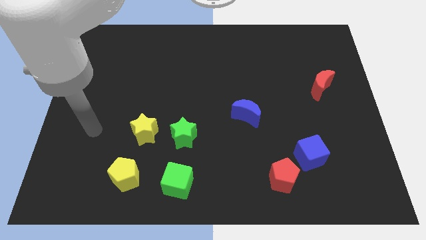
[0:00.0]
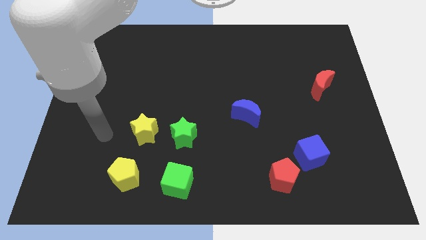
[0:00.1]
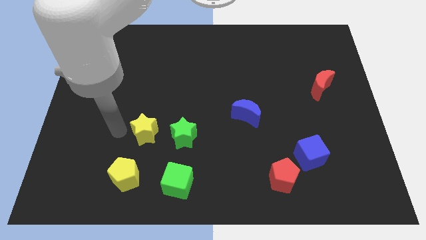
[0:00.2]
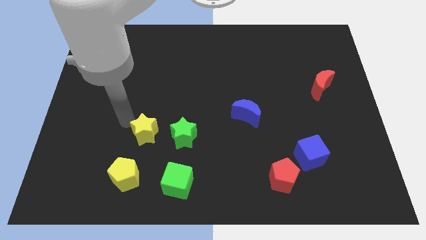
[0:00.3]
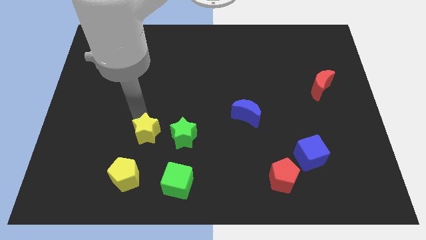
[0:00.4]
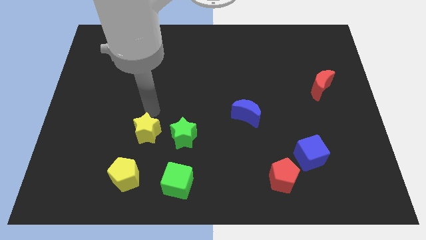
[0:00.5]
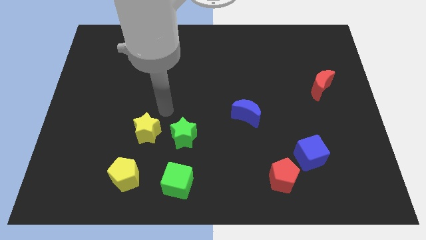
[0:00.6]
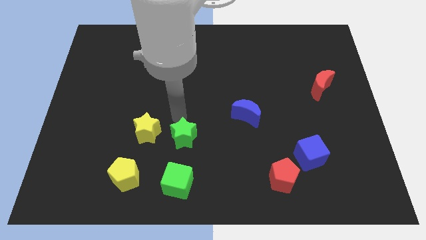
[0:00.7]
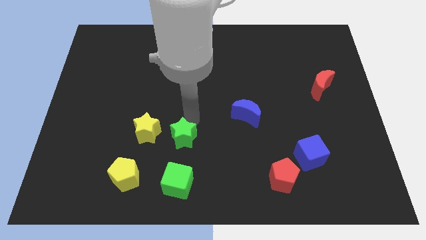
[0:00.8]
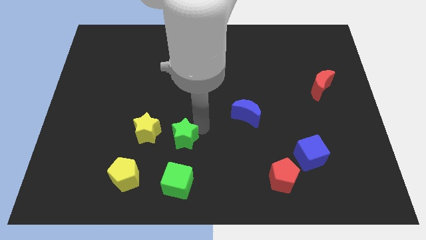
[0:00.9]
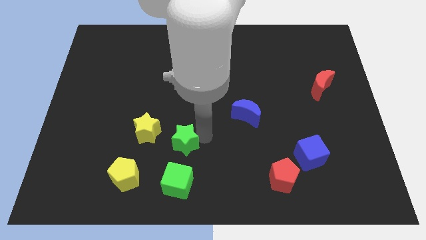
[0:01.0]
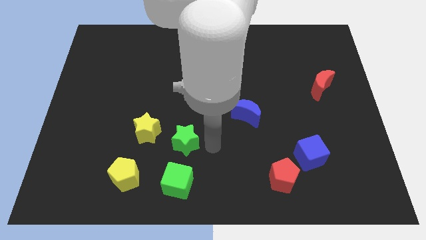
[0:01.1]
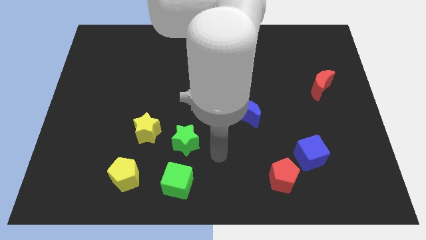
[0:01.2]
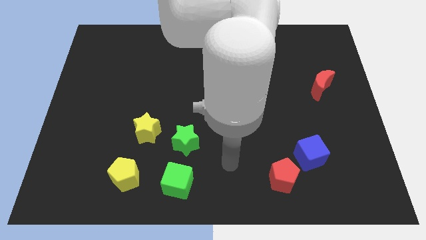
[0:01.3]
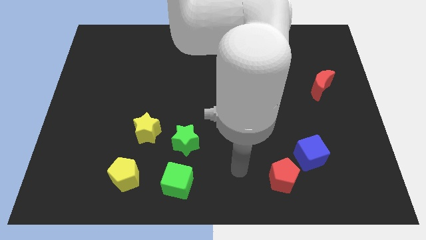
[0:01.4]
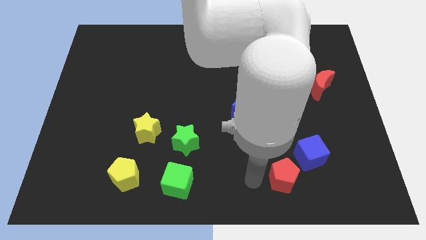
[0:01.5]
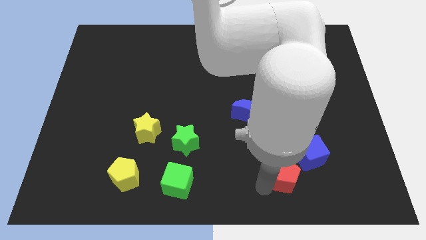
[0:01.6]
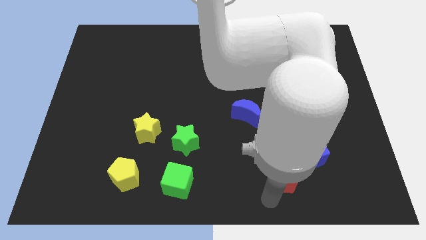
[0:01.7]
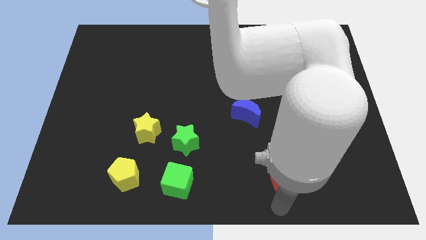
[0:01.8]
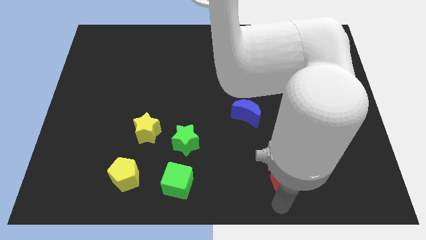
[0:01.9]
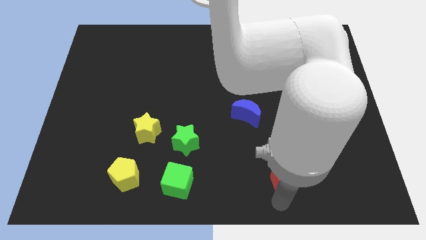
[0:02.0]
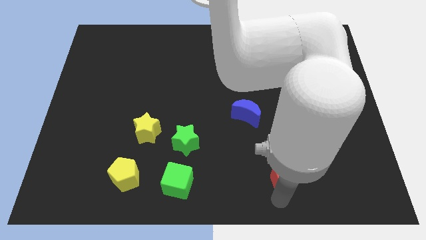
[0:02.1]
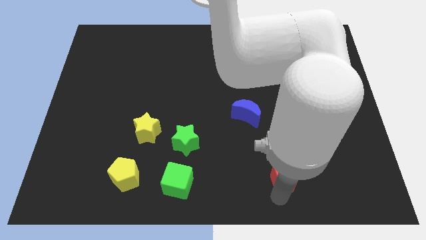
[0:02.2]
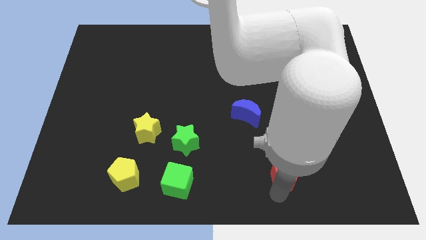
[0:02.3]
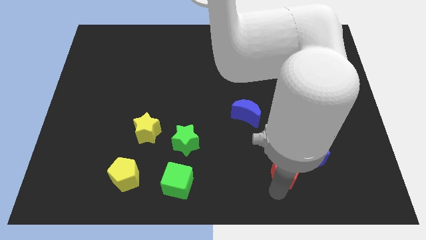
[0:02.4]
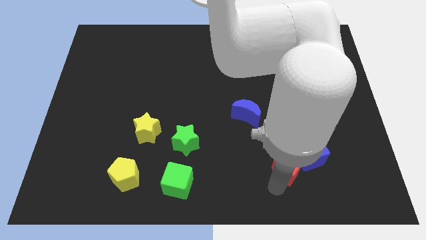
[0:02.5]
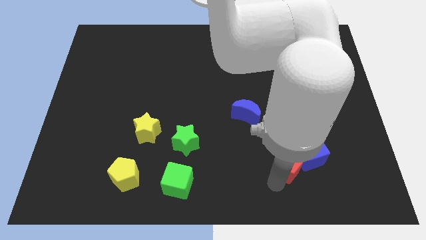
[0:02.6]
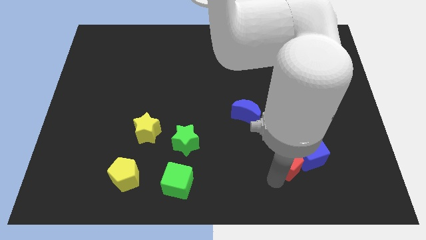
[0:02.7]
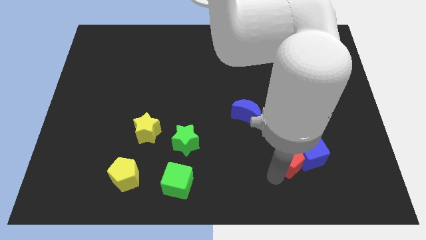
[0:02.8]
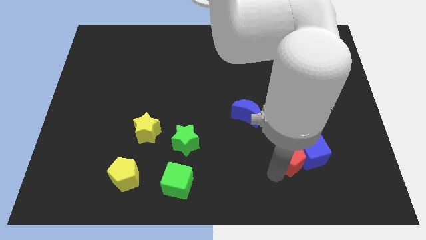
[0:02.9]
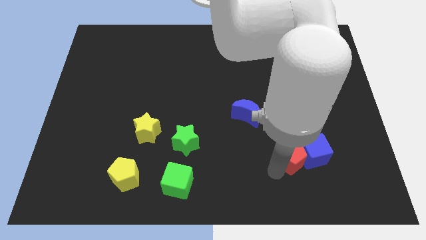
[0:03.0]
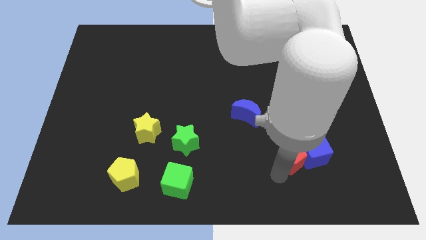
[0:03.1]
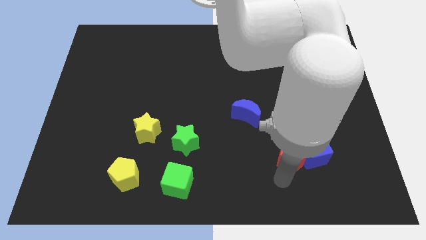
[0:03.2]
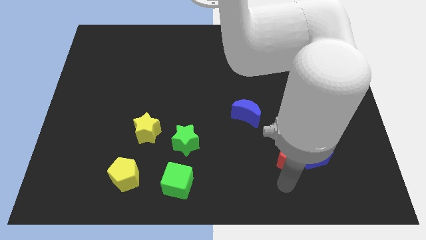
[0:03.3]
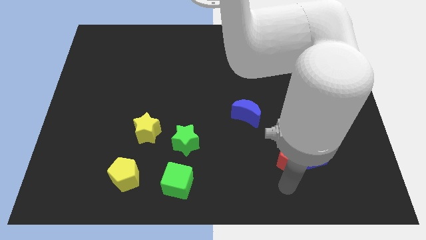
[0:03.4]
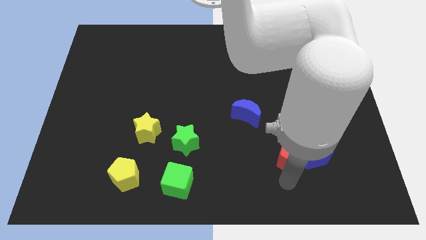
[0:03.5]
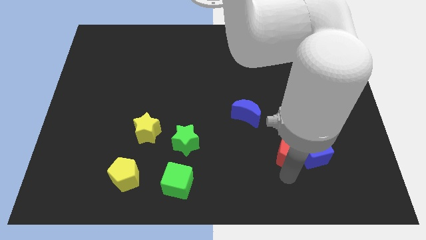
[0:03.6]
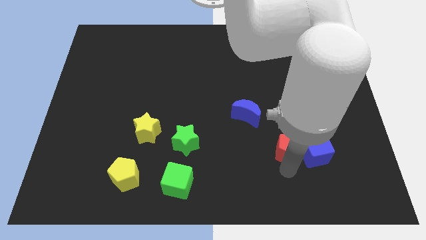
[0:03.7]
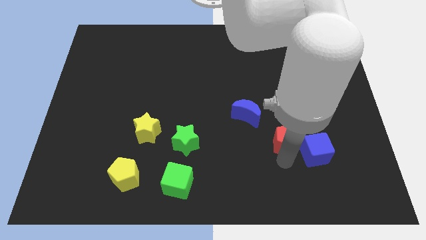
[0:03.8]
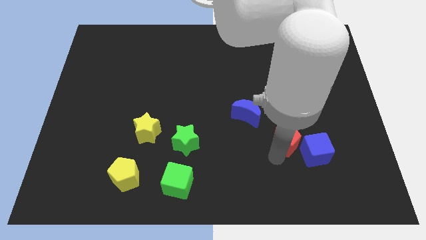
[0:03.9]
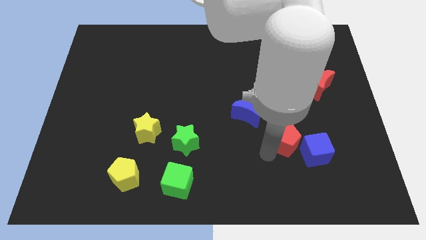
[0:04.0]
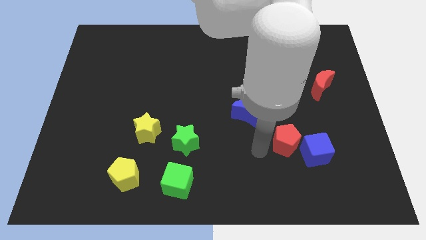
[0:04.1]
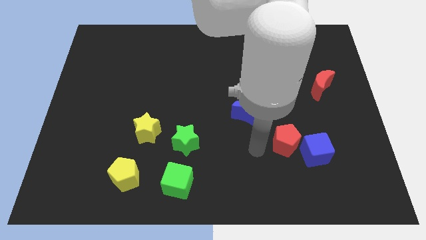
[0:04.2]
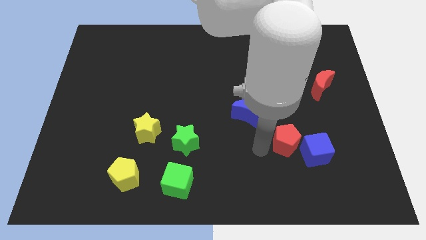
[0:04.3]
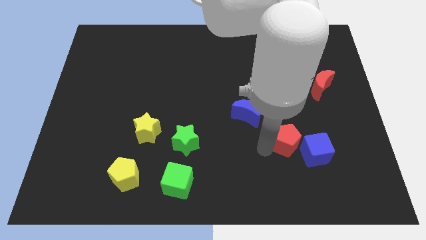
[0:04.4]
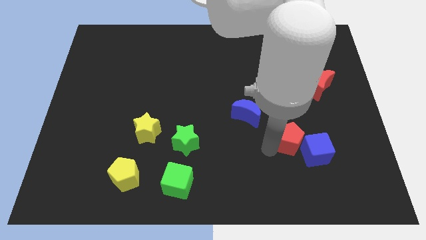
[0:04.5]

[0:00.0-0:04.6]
move the red pentagon a little bit upwards and right

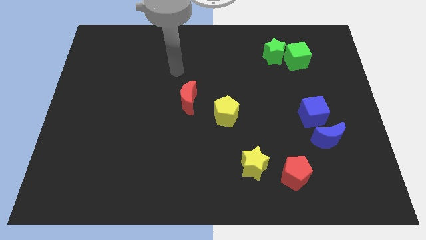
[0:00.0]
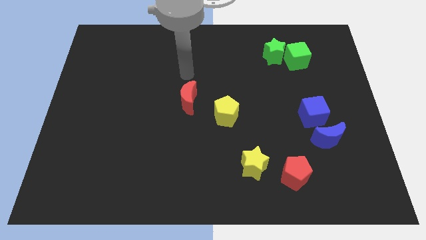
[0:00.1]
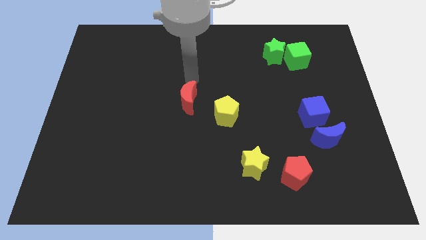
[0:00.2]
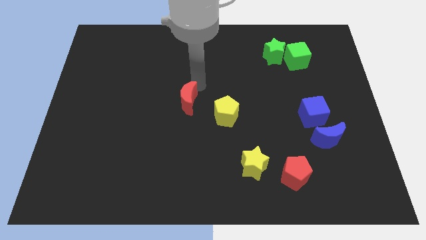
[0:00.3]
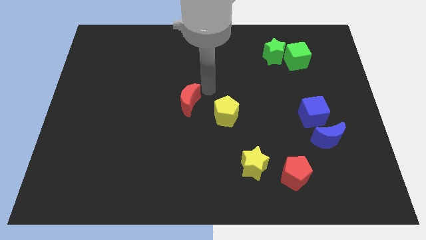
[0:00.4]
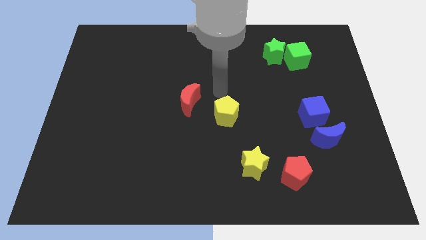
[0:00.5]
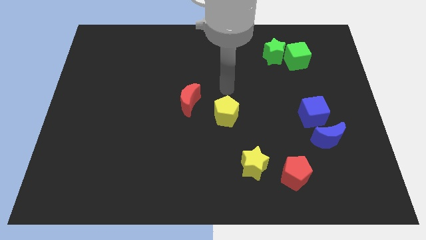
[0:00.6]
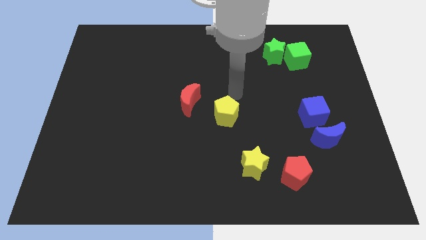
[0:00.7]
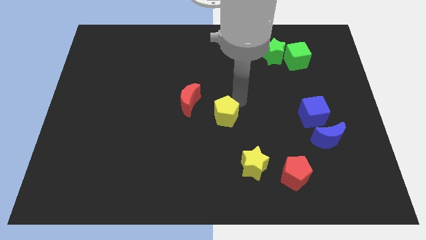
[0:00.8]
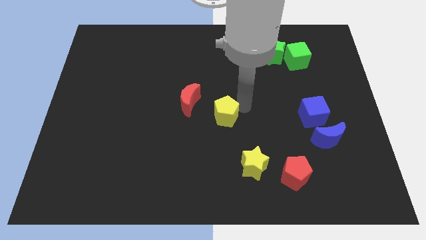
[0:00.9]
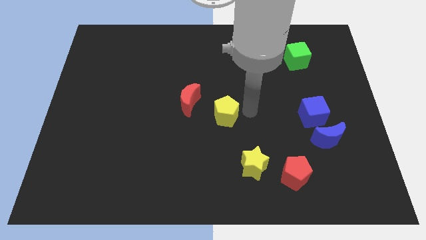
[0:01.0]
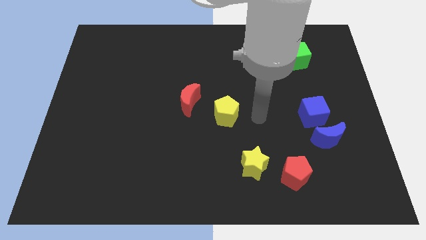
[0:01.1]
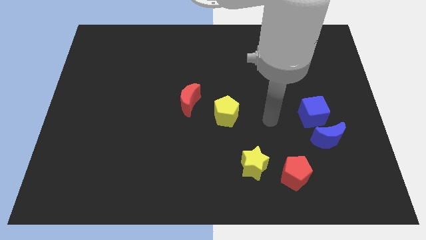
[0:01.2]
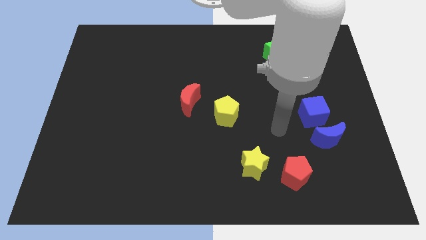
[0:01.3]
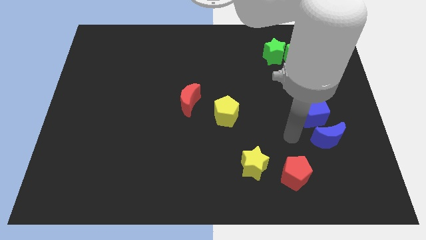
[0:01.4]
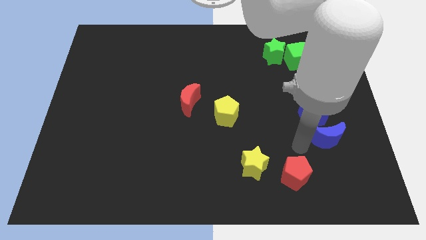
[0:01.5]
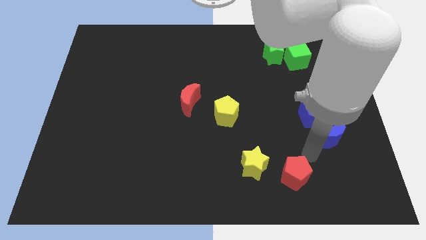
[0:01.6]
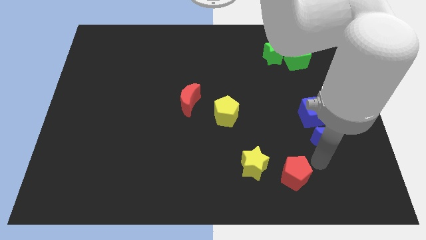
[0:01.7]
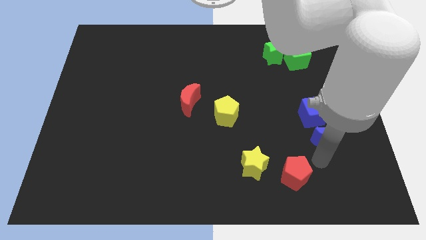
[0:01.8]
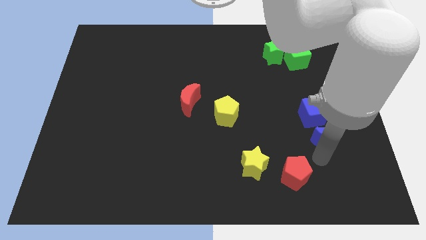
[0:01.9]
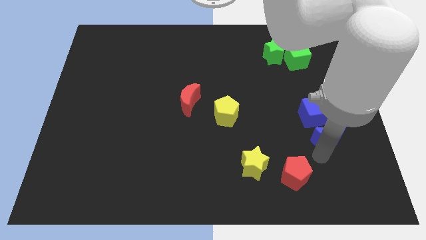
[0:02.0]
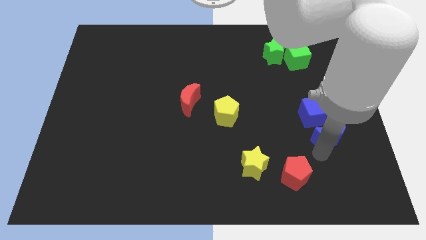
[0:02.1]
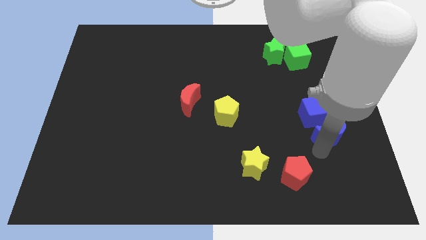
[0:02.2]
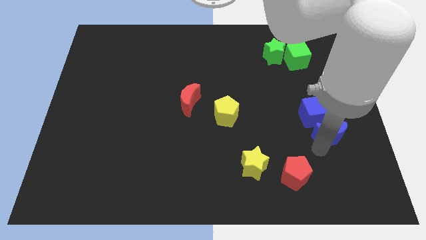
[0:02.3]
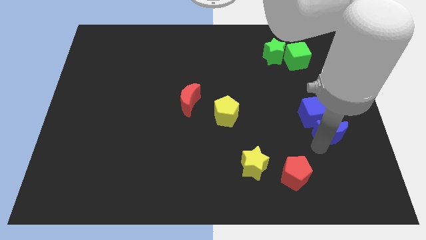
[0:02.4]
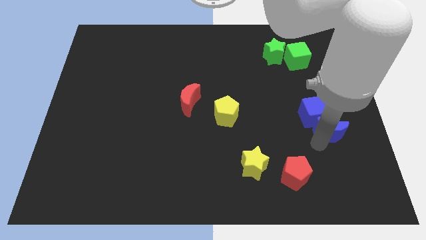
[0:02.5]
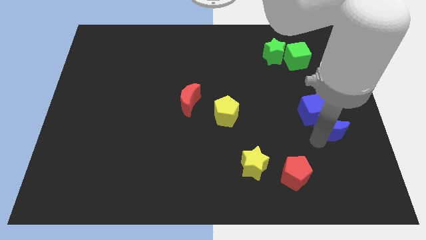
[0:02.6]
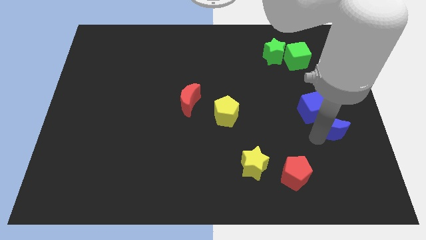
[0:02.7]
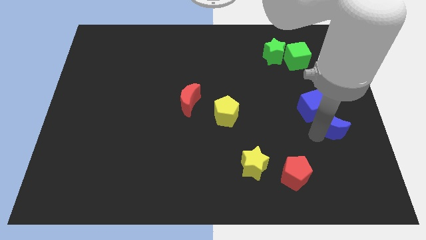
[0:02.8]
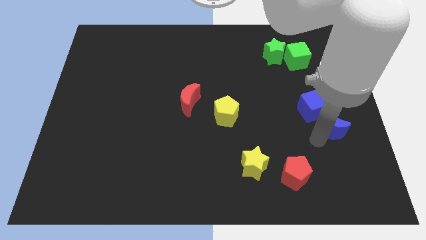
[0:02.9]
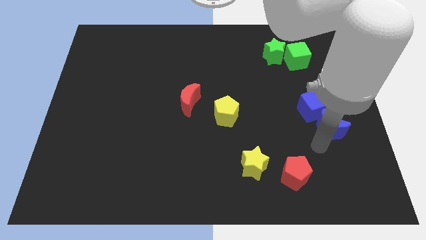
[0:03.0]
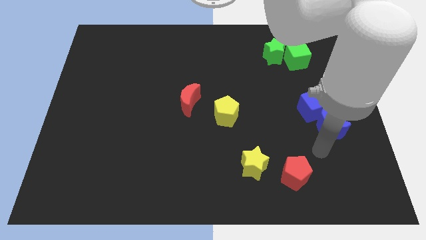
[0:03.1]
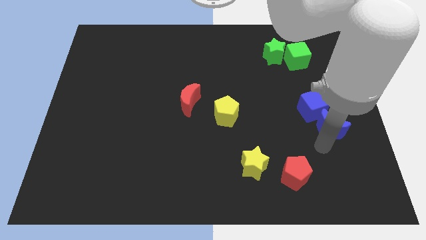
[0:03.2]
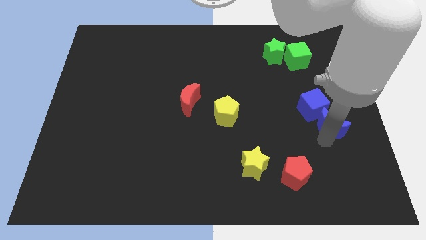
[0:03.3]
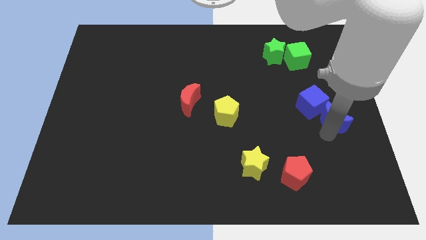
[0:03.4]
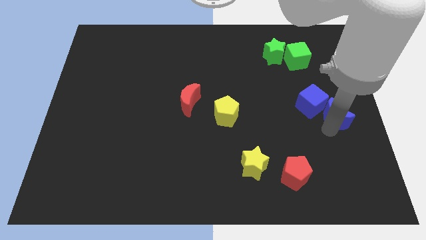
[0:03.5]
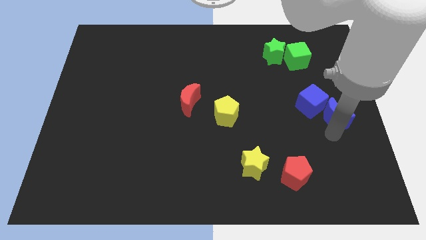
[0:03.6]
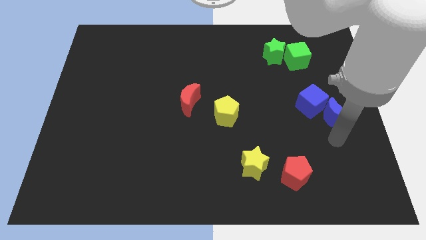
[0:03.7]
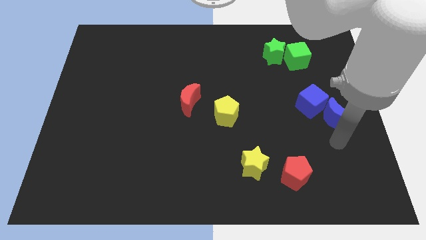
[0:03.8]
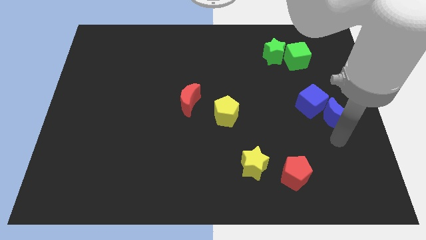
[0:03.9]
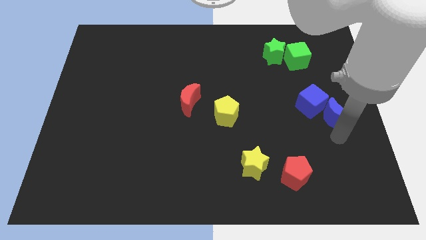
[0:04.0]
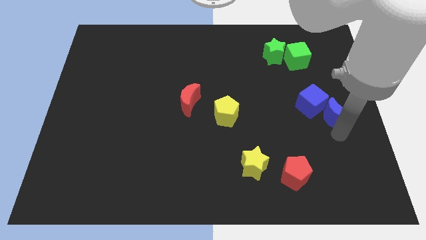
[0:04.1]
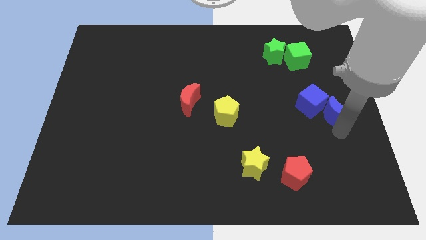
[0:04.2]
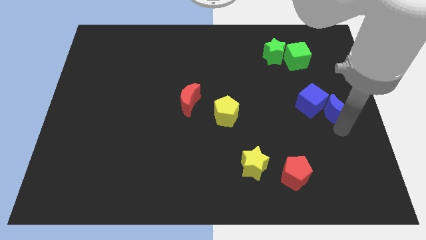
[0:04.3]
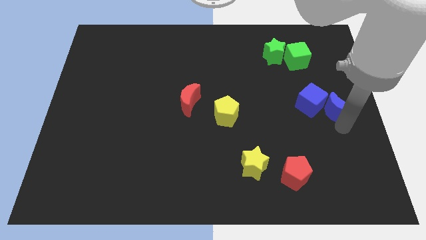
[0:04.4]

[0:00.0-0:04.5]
move the blue moon a little up
